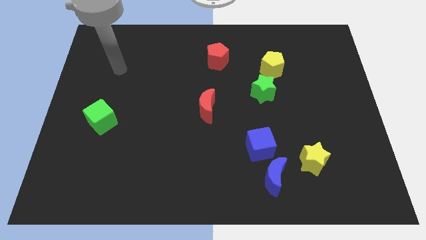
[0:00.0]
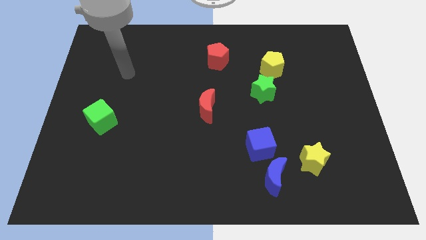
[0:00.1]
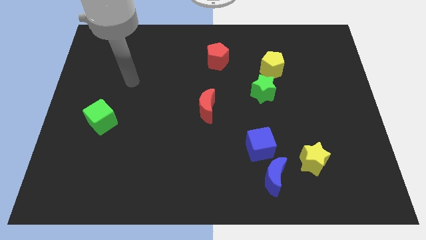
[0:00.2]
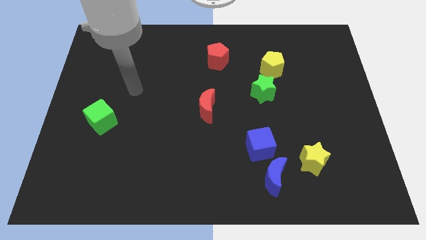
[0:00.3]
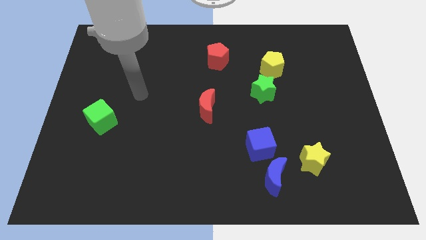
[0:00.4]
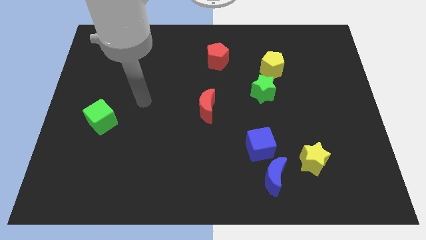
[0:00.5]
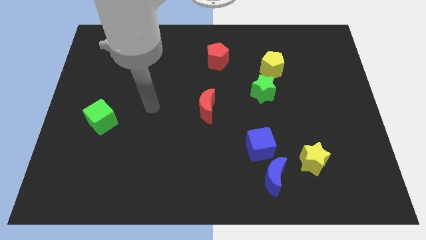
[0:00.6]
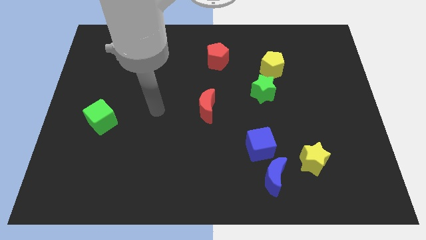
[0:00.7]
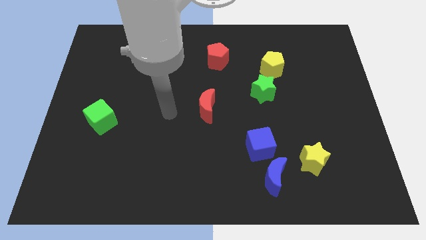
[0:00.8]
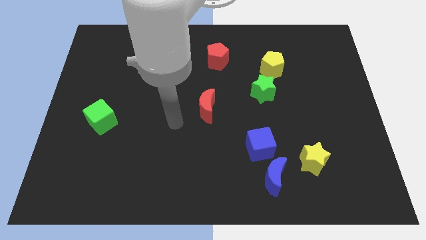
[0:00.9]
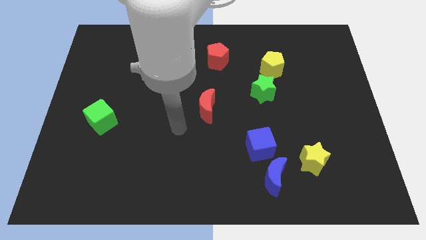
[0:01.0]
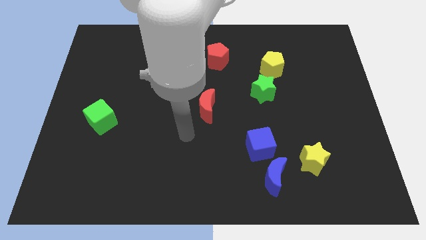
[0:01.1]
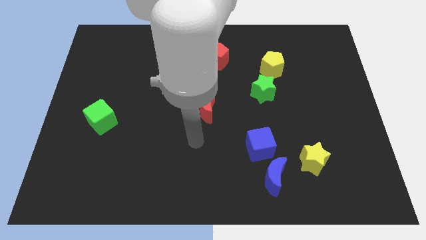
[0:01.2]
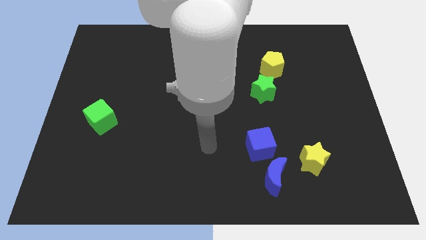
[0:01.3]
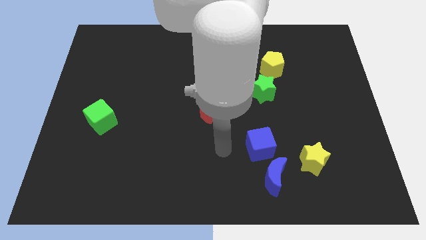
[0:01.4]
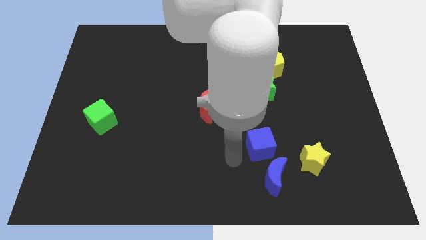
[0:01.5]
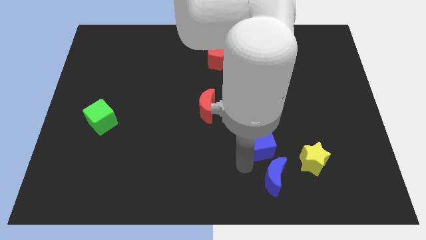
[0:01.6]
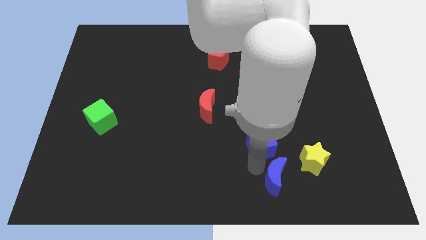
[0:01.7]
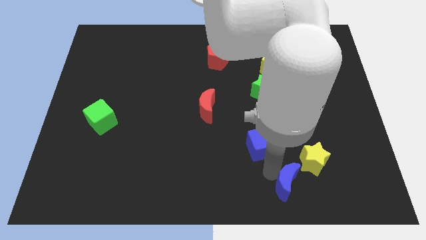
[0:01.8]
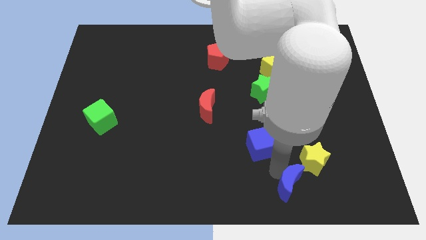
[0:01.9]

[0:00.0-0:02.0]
move the blue cube away from the blue moon

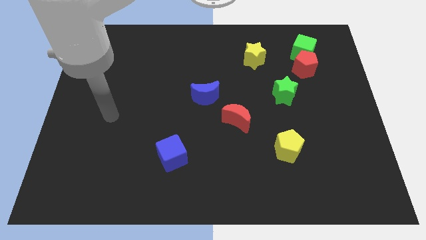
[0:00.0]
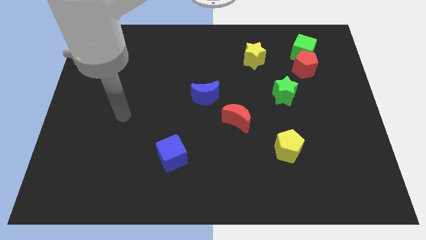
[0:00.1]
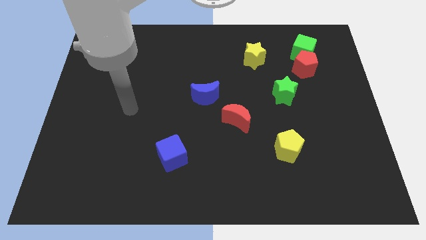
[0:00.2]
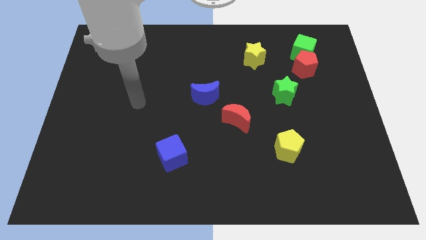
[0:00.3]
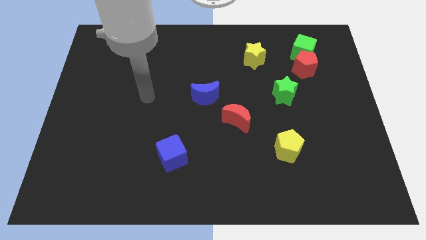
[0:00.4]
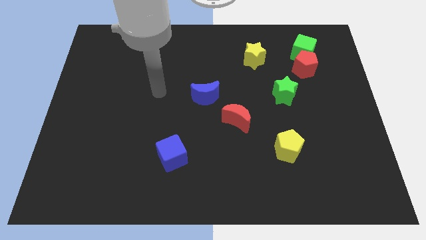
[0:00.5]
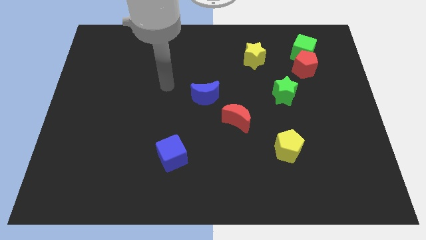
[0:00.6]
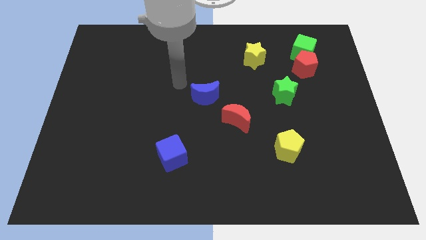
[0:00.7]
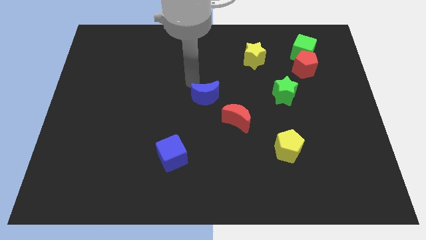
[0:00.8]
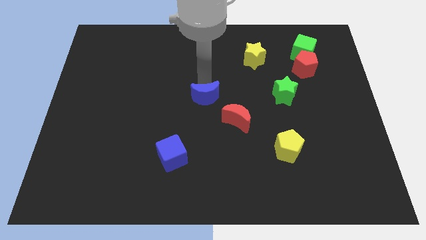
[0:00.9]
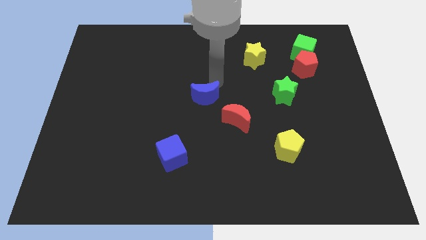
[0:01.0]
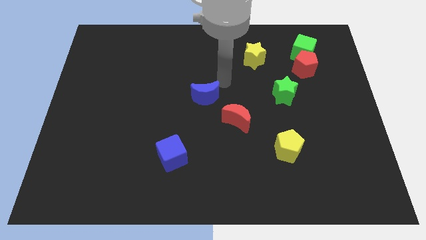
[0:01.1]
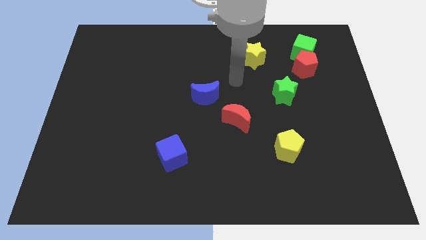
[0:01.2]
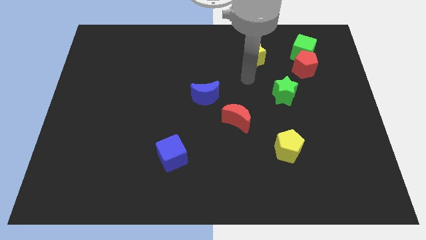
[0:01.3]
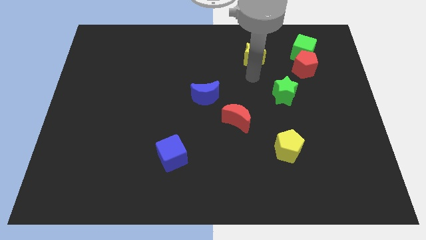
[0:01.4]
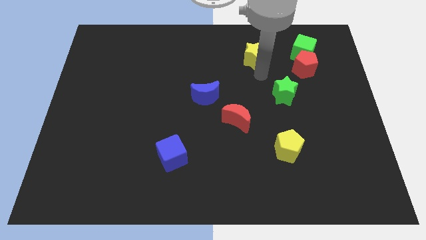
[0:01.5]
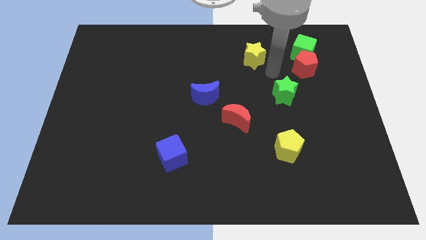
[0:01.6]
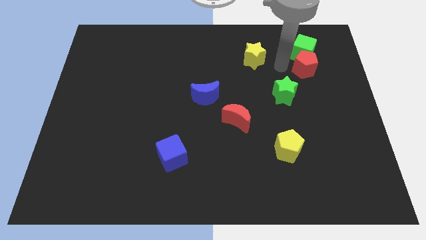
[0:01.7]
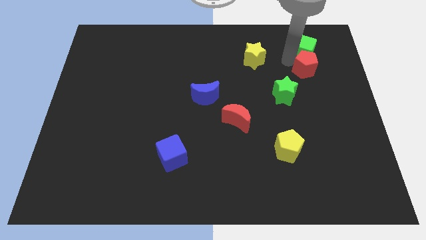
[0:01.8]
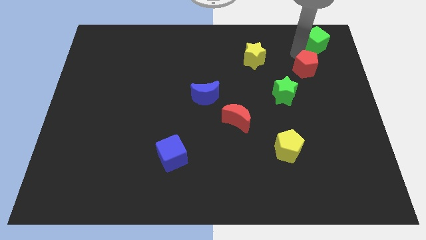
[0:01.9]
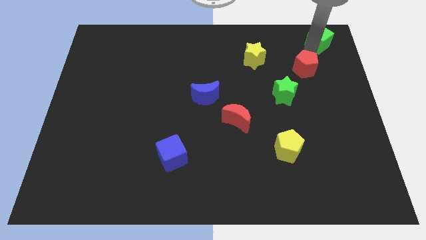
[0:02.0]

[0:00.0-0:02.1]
separate the red pentagon from the green cube

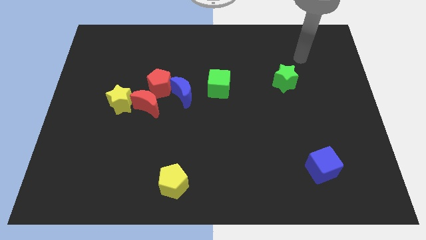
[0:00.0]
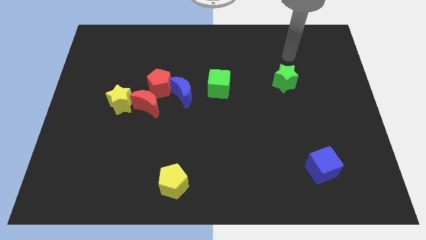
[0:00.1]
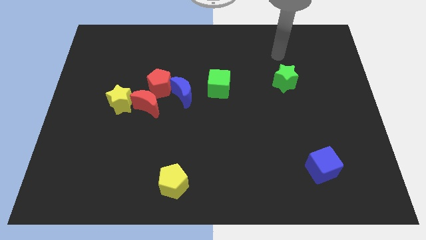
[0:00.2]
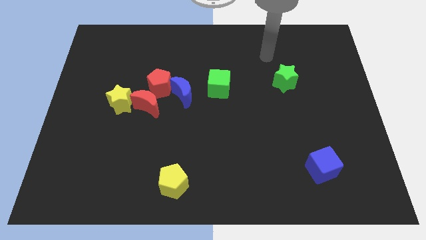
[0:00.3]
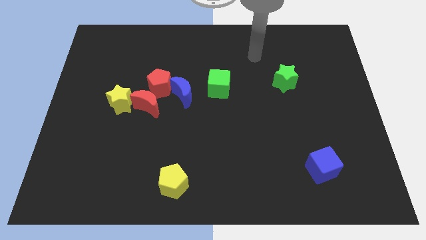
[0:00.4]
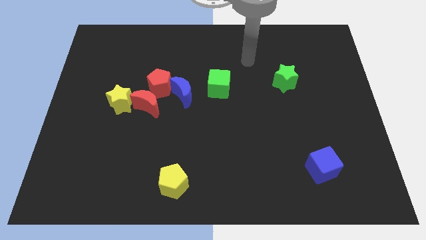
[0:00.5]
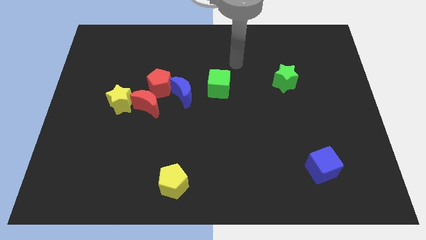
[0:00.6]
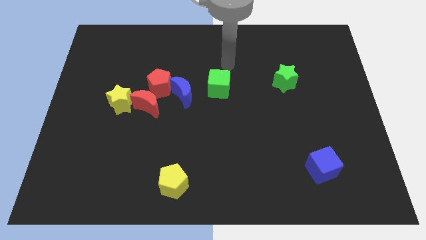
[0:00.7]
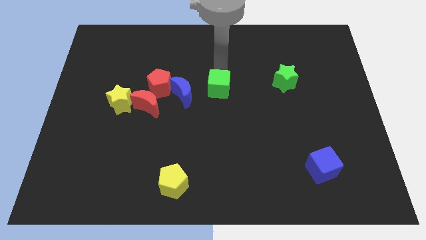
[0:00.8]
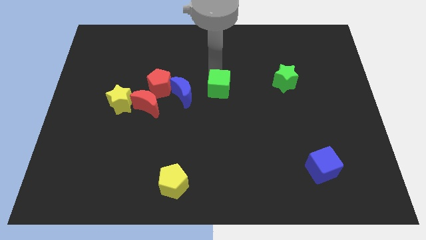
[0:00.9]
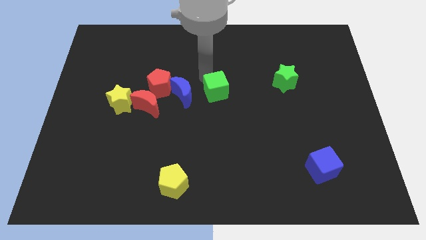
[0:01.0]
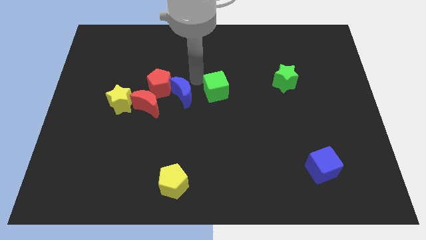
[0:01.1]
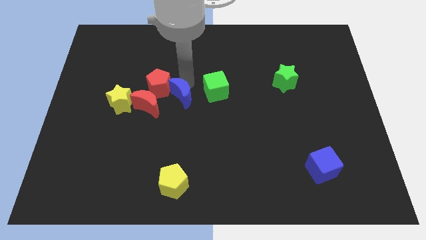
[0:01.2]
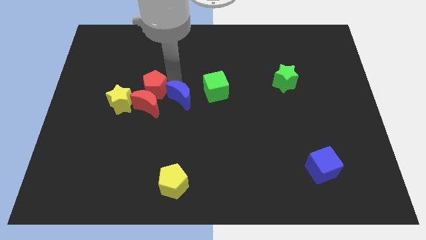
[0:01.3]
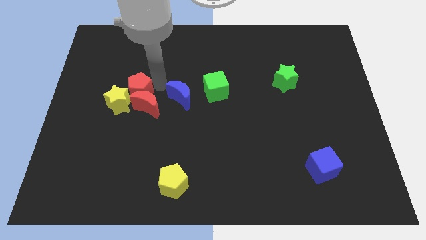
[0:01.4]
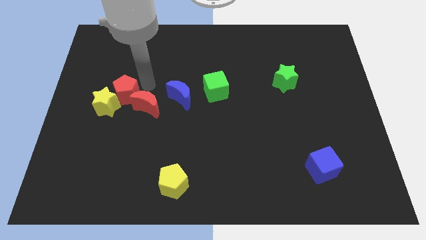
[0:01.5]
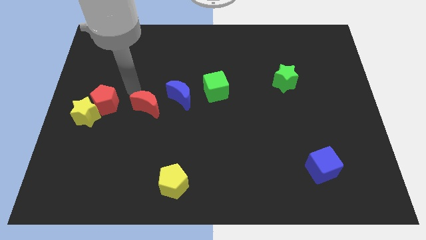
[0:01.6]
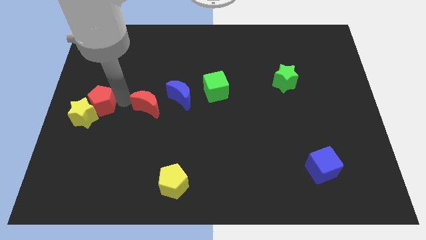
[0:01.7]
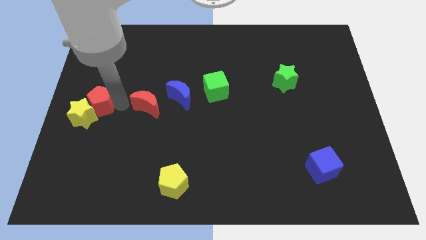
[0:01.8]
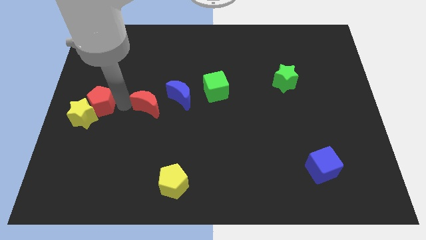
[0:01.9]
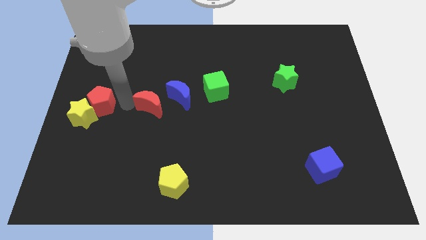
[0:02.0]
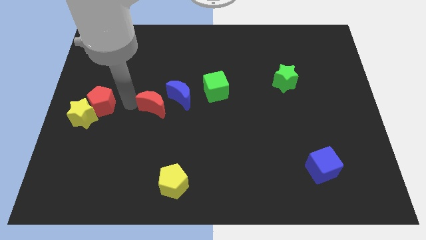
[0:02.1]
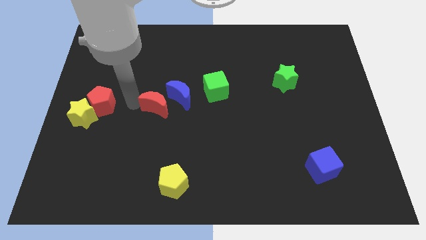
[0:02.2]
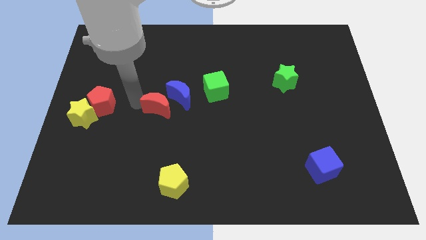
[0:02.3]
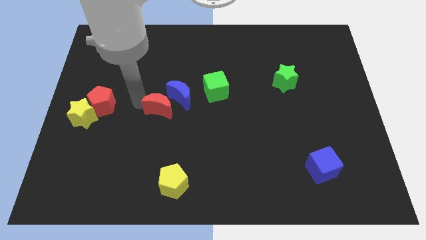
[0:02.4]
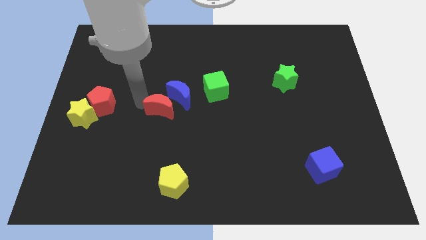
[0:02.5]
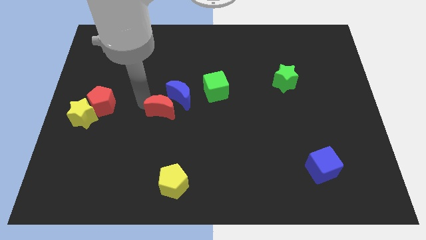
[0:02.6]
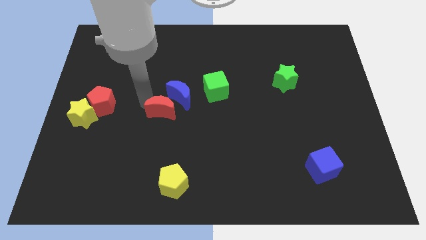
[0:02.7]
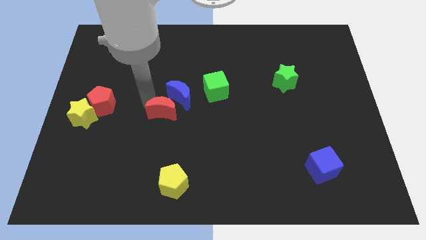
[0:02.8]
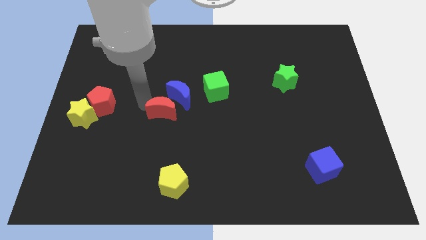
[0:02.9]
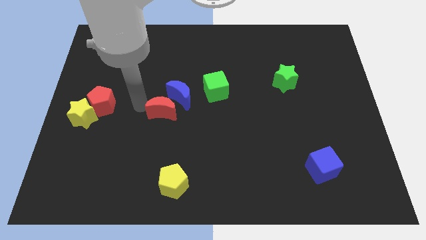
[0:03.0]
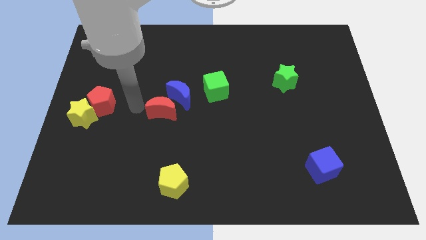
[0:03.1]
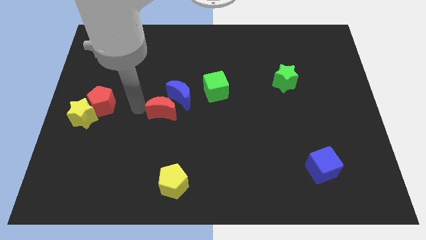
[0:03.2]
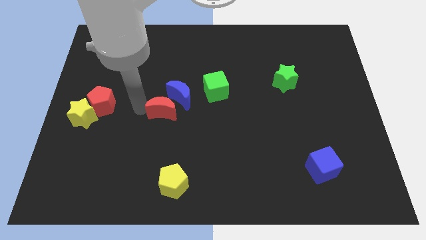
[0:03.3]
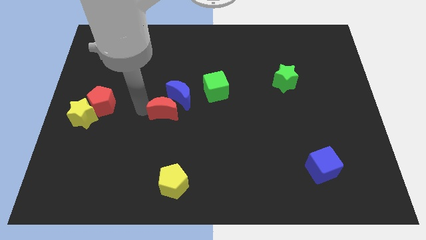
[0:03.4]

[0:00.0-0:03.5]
pull the red moon apart from the red pentagon, yellow star, and blue moon

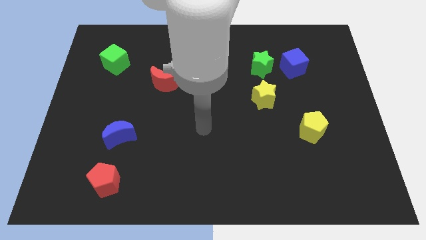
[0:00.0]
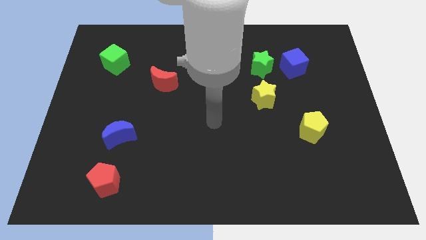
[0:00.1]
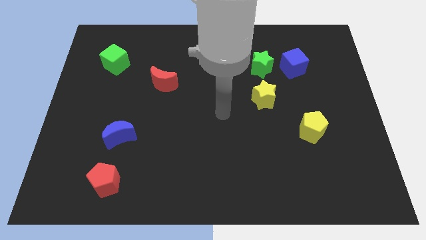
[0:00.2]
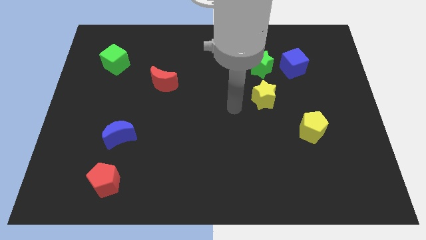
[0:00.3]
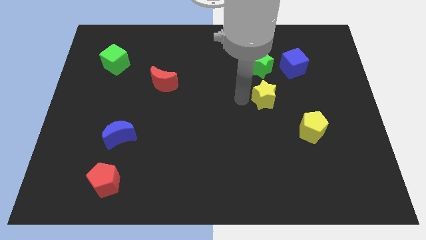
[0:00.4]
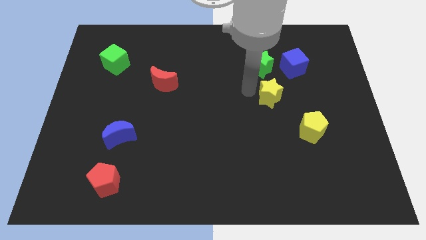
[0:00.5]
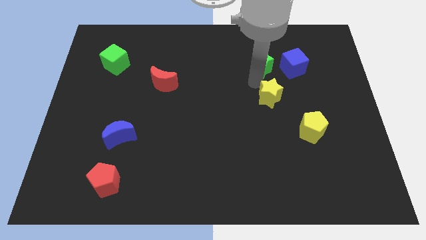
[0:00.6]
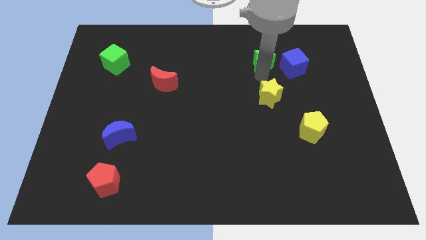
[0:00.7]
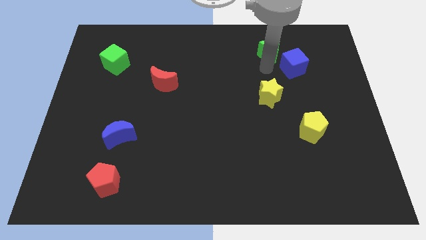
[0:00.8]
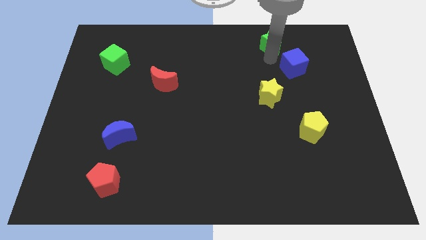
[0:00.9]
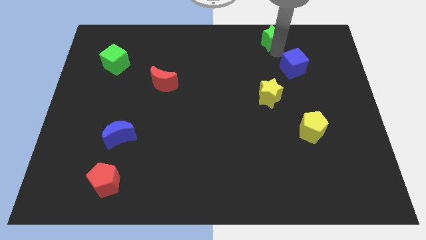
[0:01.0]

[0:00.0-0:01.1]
pull the blue cube apart from the green star

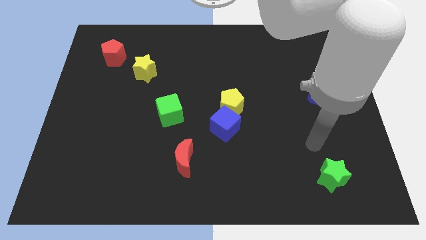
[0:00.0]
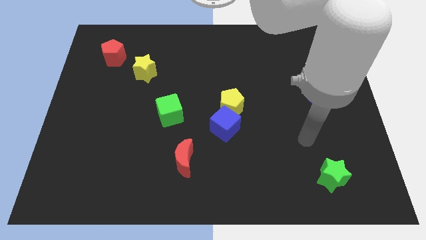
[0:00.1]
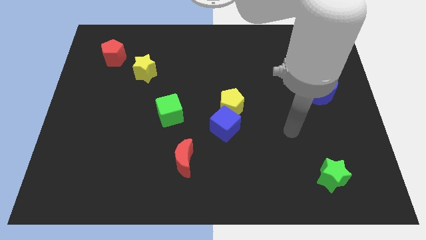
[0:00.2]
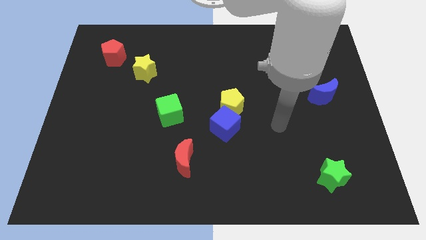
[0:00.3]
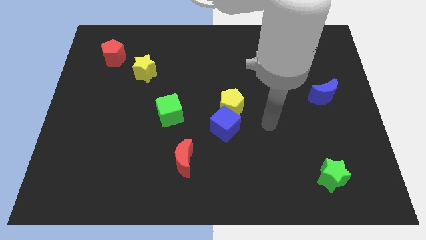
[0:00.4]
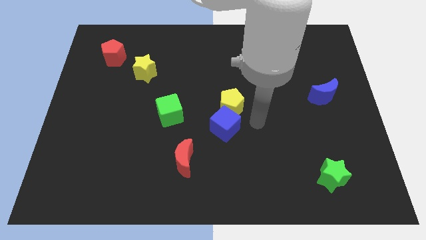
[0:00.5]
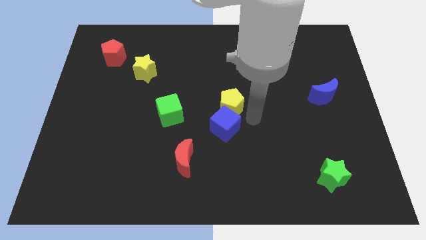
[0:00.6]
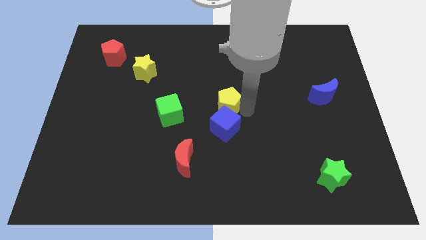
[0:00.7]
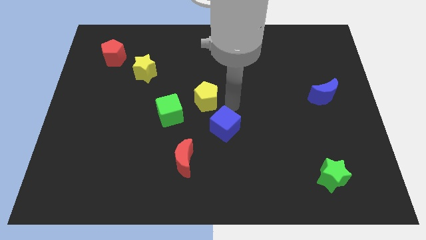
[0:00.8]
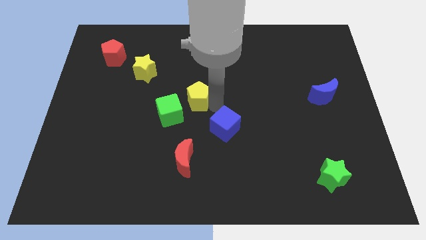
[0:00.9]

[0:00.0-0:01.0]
pull the blue cube apart from the yellow pentagon
